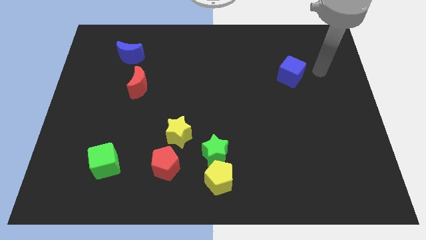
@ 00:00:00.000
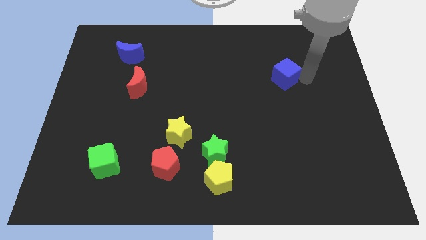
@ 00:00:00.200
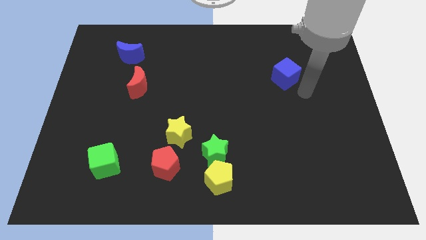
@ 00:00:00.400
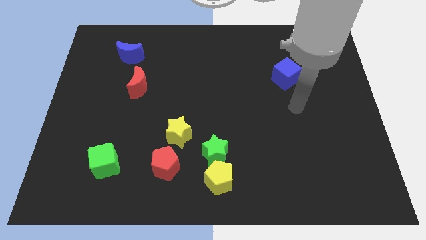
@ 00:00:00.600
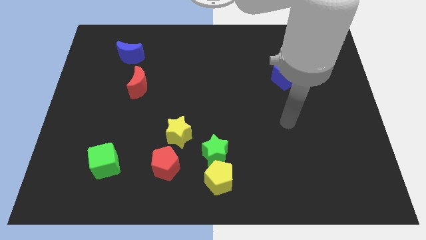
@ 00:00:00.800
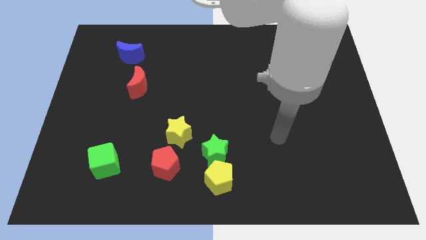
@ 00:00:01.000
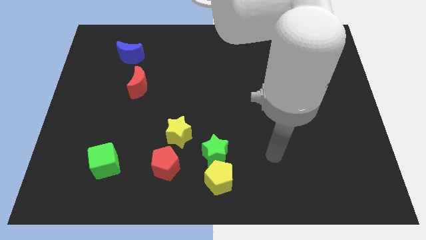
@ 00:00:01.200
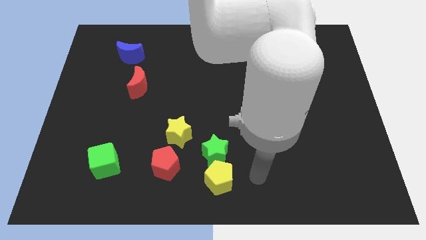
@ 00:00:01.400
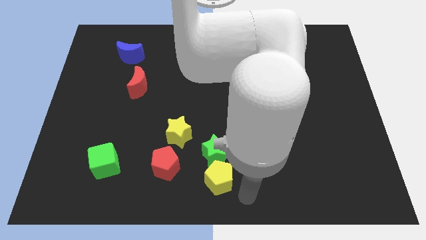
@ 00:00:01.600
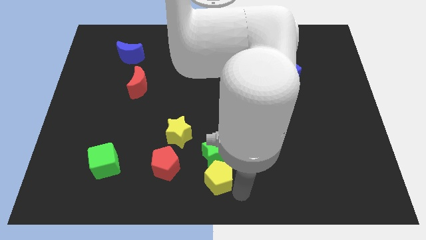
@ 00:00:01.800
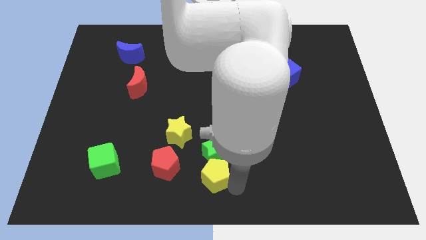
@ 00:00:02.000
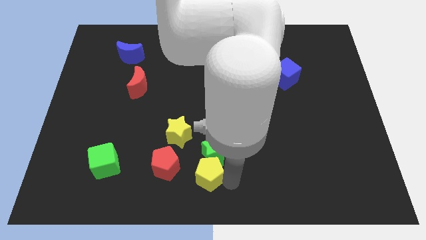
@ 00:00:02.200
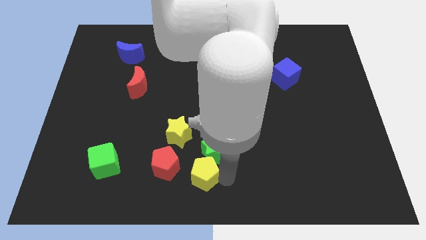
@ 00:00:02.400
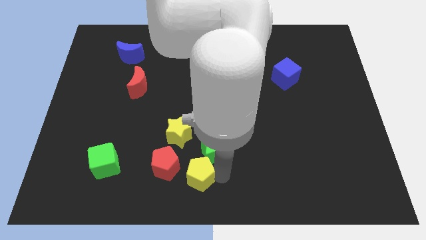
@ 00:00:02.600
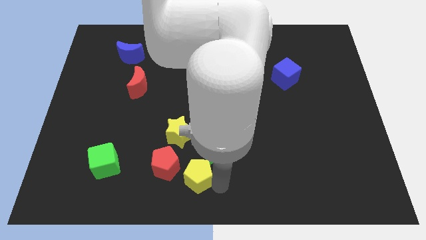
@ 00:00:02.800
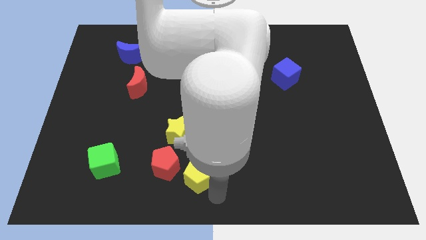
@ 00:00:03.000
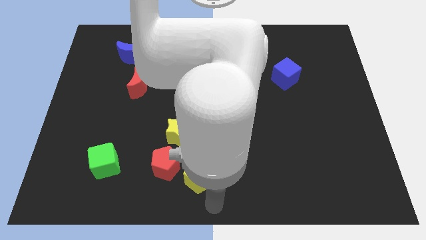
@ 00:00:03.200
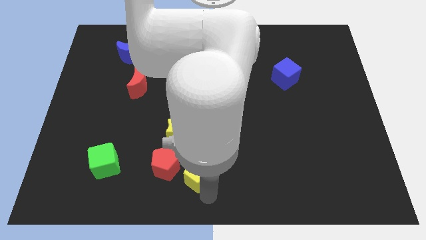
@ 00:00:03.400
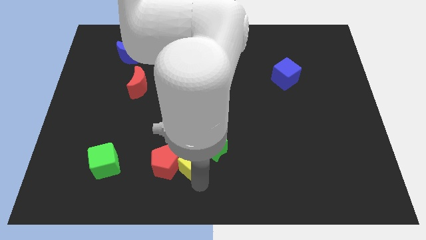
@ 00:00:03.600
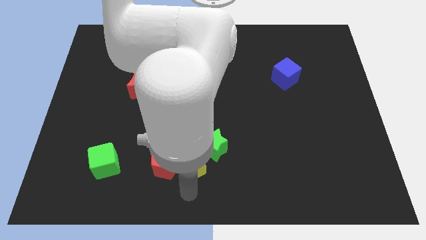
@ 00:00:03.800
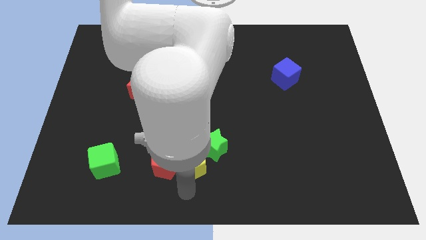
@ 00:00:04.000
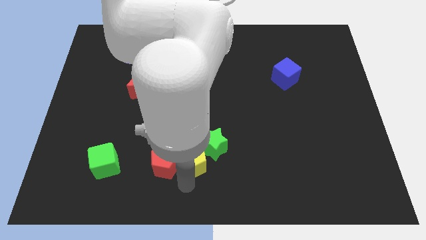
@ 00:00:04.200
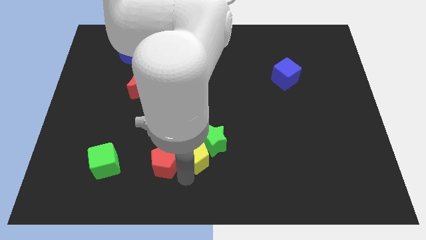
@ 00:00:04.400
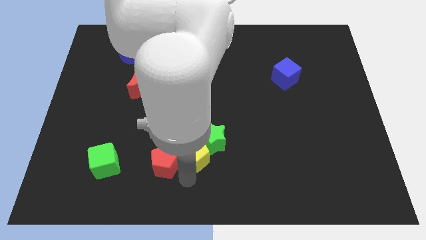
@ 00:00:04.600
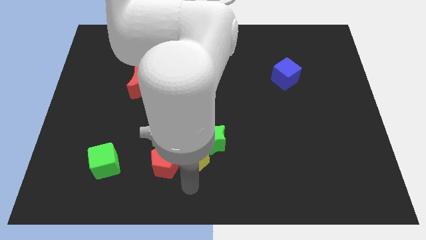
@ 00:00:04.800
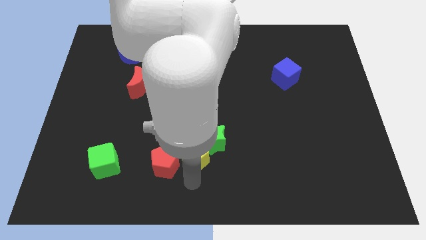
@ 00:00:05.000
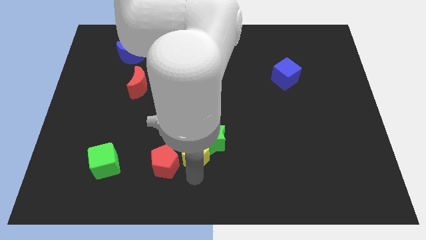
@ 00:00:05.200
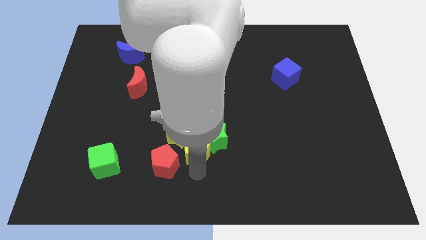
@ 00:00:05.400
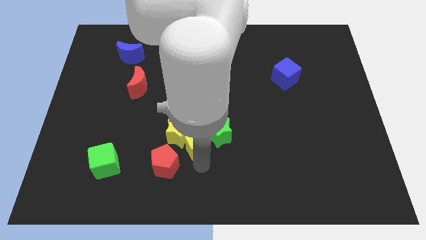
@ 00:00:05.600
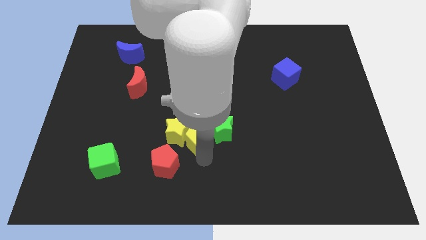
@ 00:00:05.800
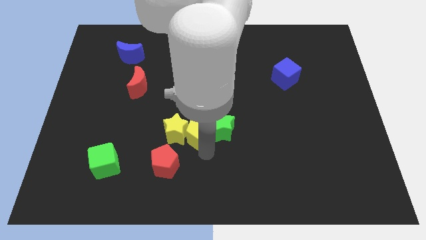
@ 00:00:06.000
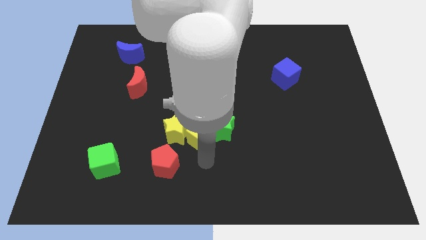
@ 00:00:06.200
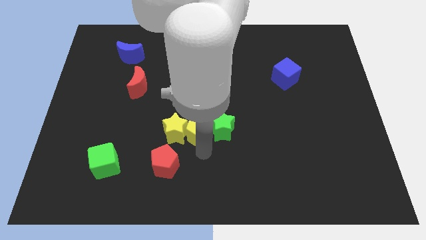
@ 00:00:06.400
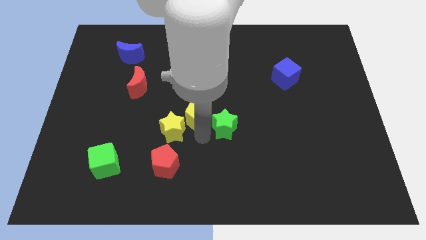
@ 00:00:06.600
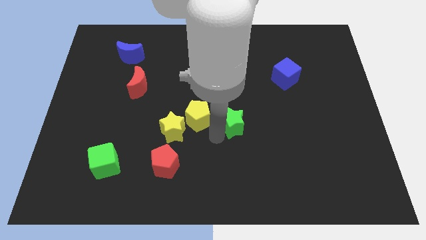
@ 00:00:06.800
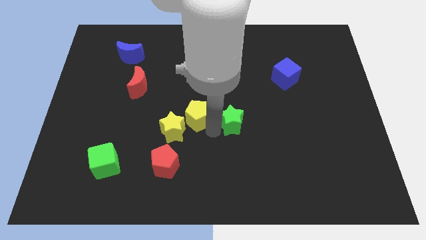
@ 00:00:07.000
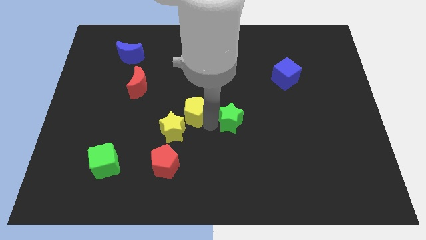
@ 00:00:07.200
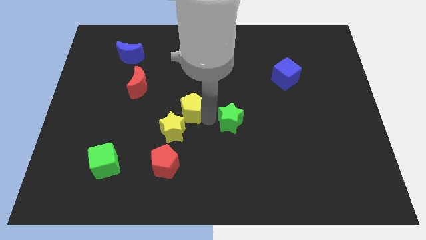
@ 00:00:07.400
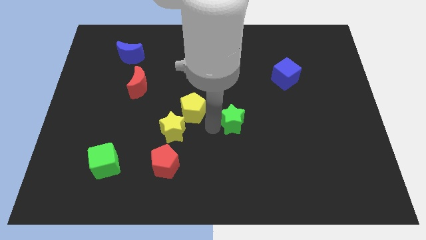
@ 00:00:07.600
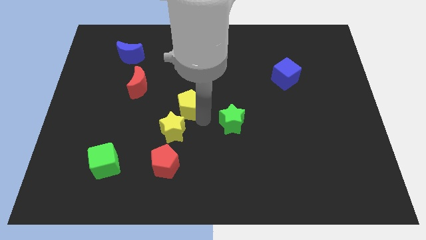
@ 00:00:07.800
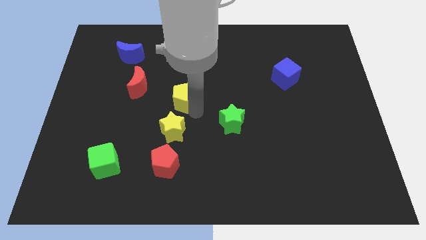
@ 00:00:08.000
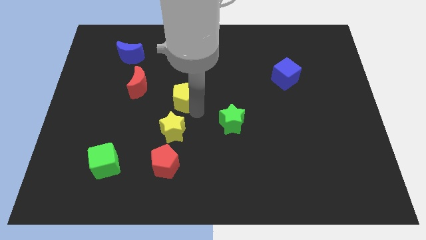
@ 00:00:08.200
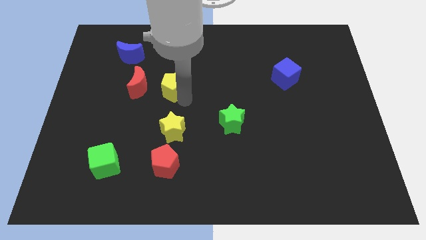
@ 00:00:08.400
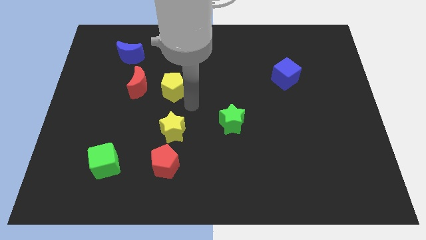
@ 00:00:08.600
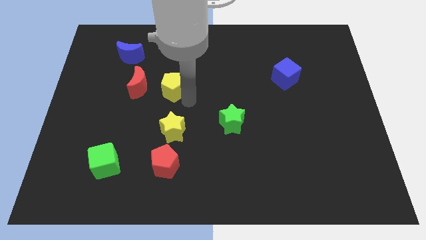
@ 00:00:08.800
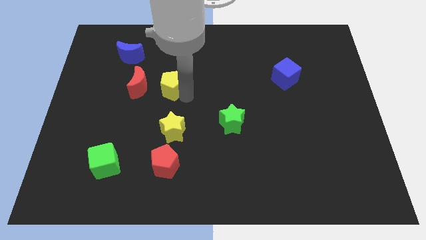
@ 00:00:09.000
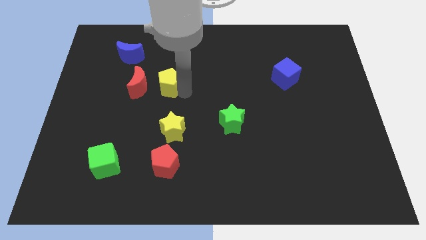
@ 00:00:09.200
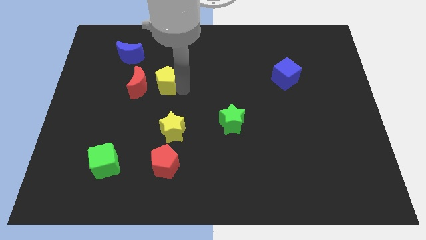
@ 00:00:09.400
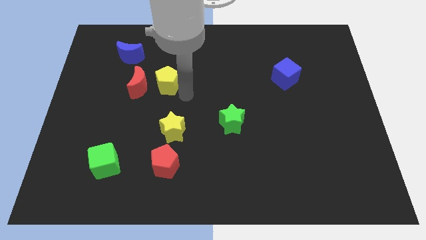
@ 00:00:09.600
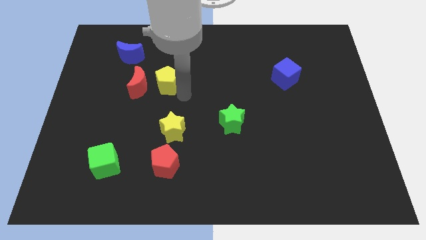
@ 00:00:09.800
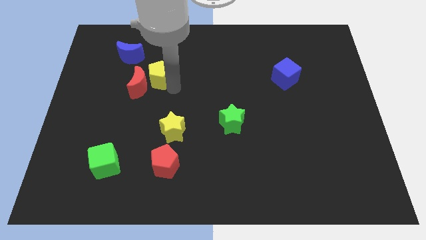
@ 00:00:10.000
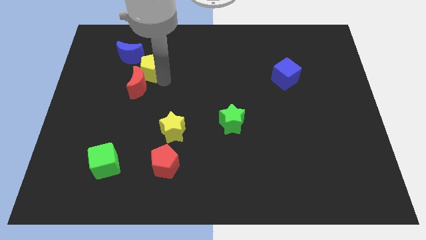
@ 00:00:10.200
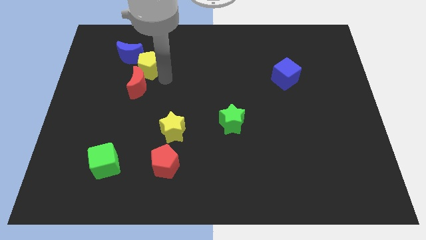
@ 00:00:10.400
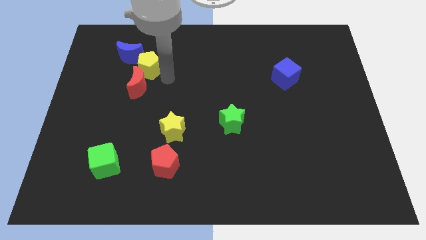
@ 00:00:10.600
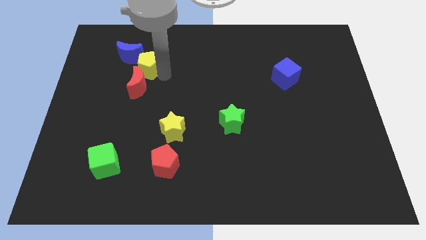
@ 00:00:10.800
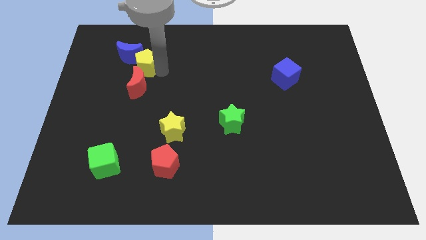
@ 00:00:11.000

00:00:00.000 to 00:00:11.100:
move the yellow pentagon towards the blue moon

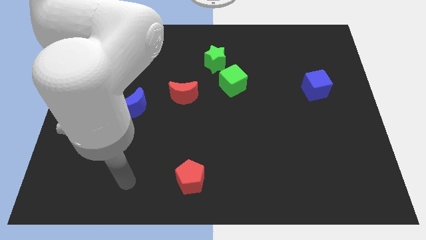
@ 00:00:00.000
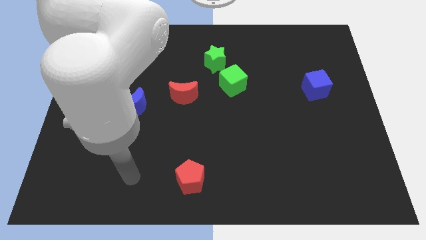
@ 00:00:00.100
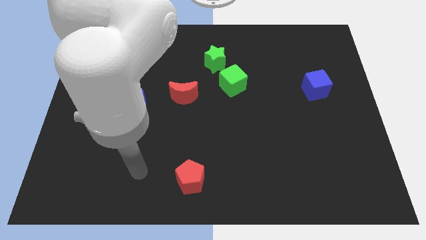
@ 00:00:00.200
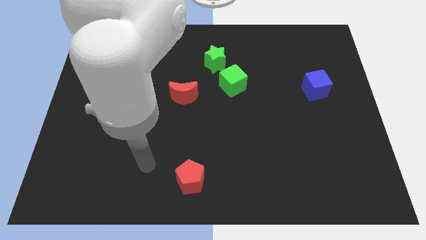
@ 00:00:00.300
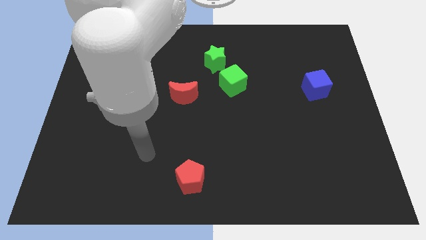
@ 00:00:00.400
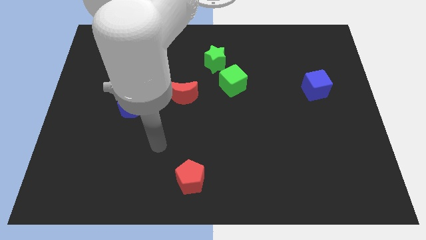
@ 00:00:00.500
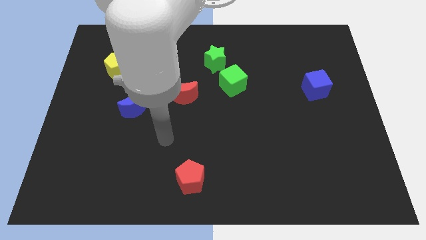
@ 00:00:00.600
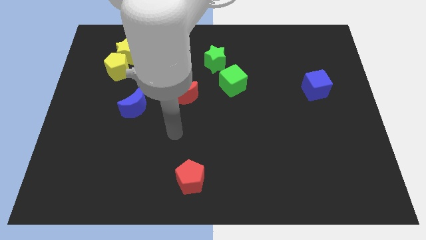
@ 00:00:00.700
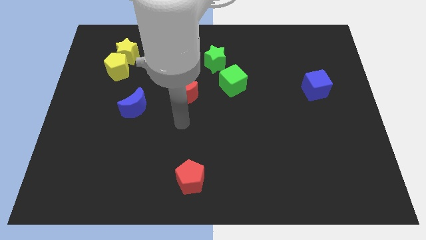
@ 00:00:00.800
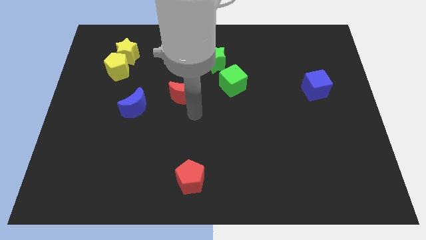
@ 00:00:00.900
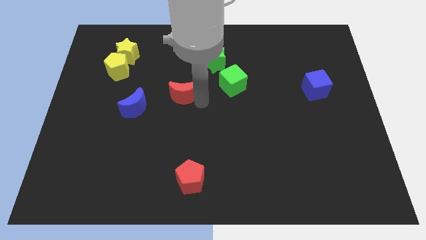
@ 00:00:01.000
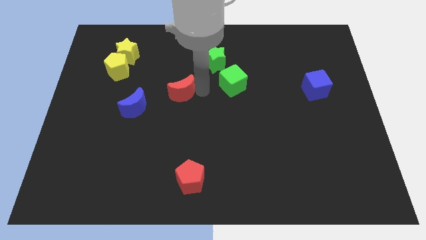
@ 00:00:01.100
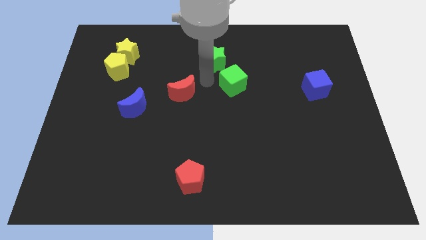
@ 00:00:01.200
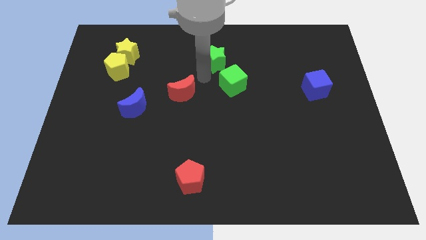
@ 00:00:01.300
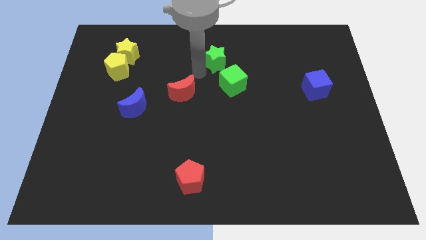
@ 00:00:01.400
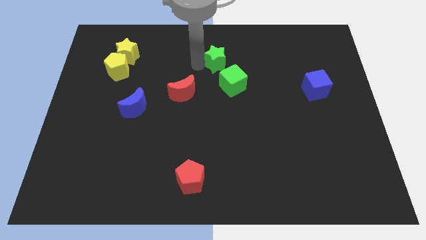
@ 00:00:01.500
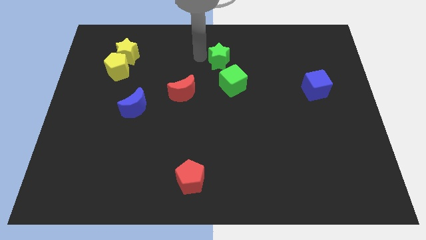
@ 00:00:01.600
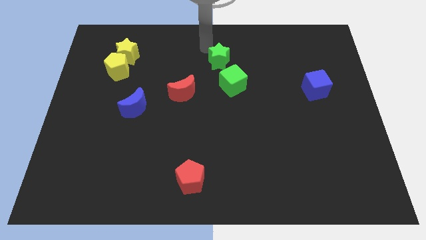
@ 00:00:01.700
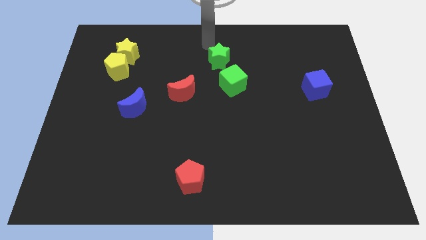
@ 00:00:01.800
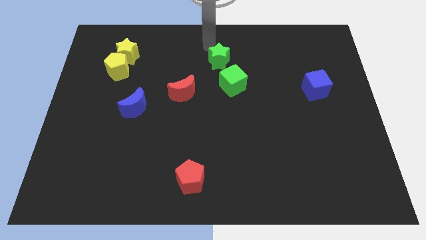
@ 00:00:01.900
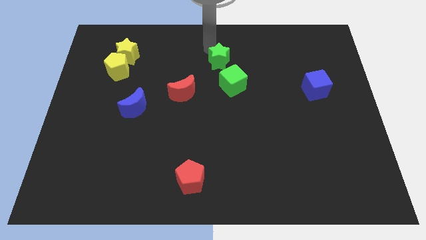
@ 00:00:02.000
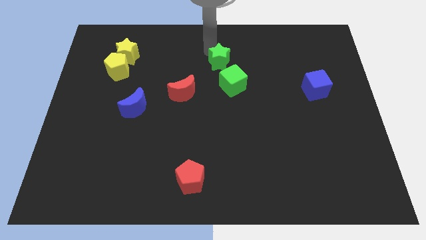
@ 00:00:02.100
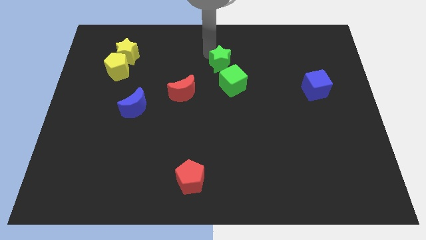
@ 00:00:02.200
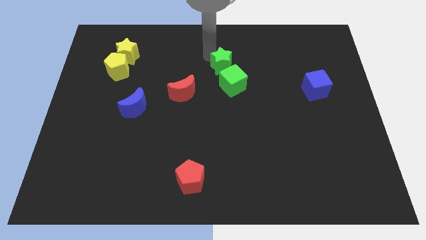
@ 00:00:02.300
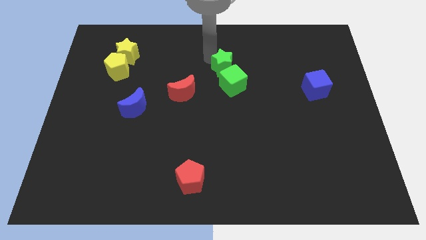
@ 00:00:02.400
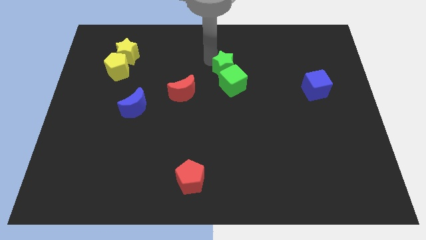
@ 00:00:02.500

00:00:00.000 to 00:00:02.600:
move the green star towards the green cube
